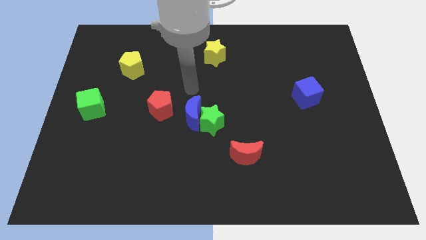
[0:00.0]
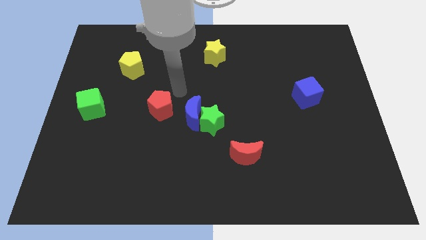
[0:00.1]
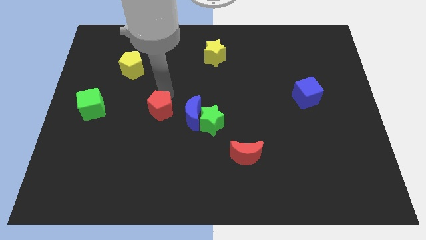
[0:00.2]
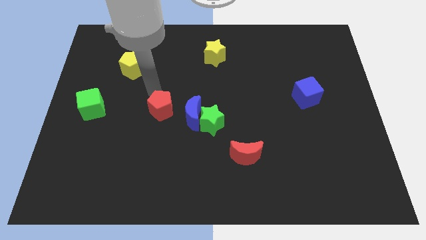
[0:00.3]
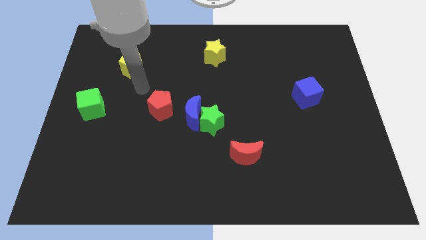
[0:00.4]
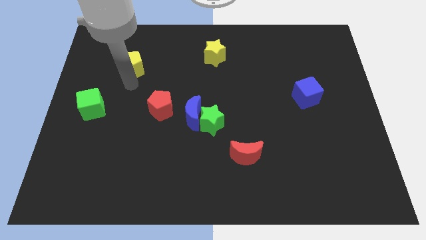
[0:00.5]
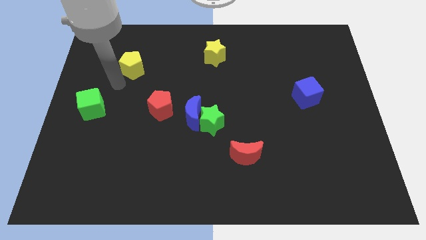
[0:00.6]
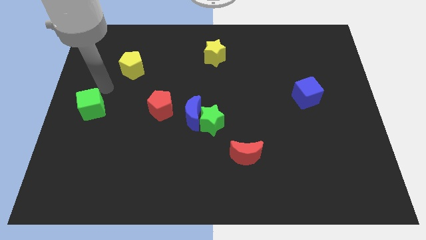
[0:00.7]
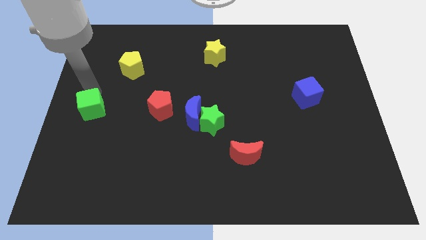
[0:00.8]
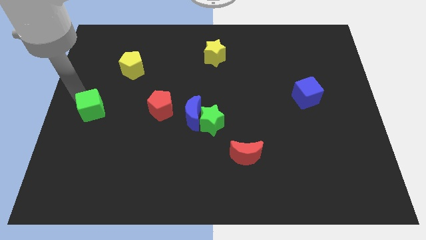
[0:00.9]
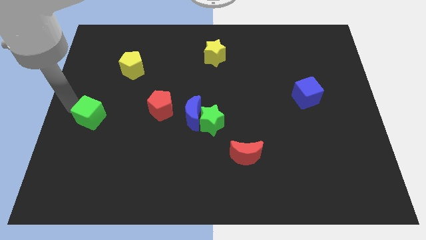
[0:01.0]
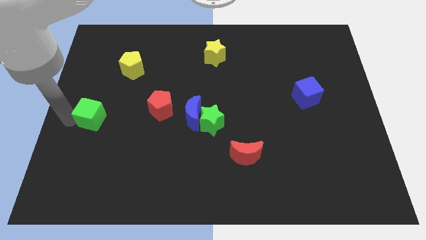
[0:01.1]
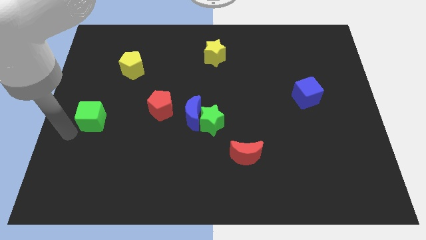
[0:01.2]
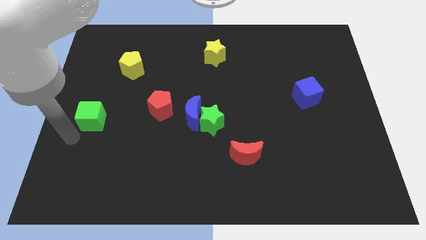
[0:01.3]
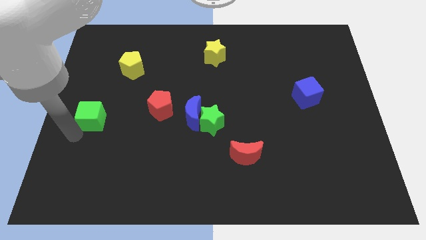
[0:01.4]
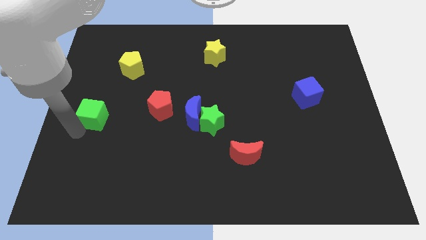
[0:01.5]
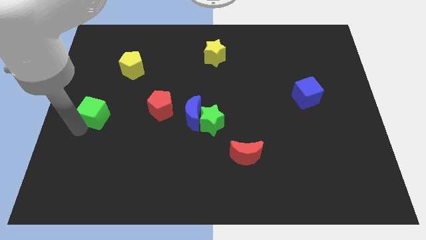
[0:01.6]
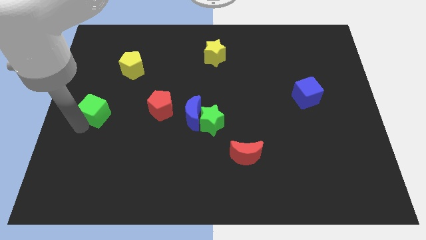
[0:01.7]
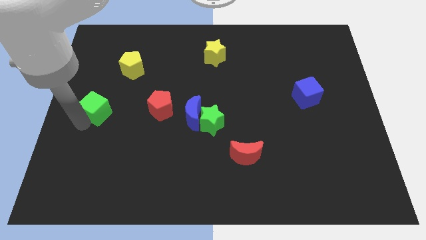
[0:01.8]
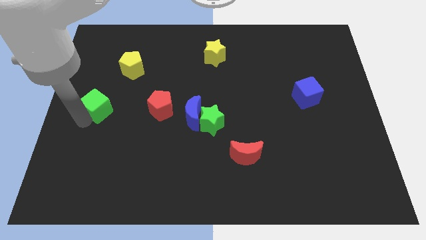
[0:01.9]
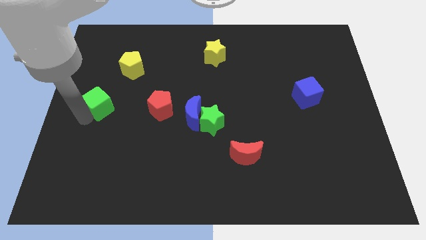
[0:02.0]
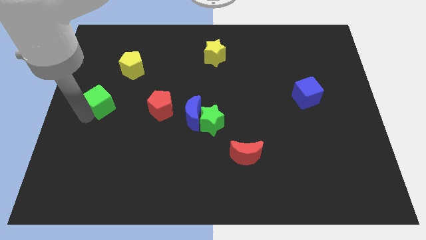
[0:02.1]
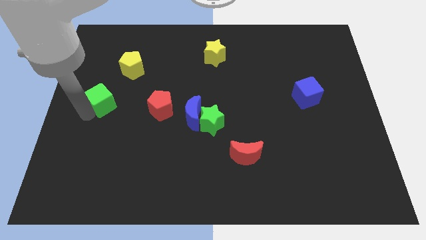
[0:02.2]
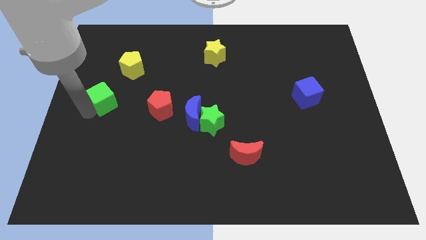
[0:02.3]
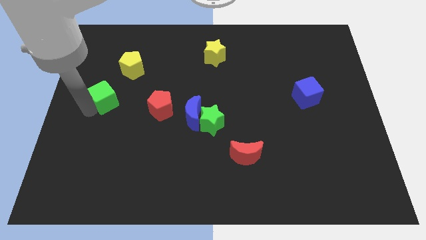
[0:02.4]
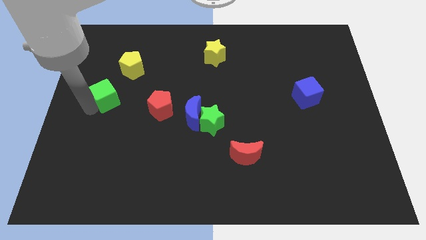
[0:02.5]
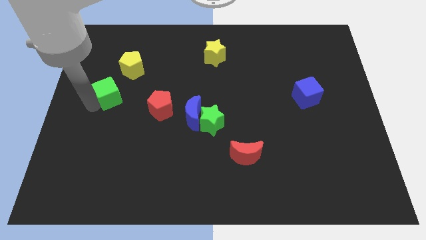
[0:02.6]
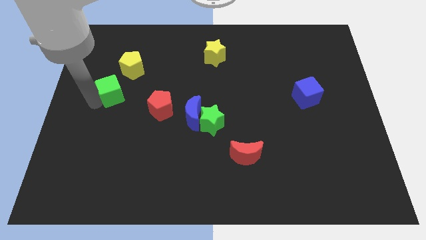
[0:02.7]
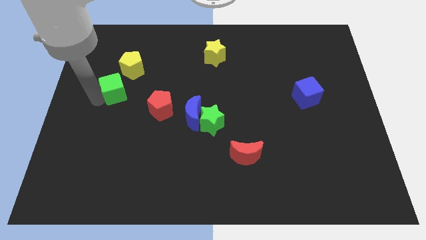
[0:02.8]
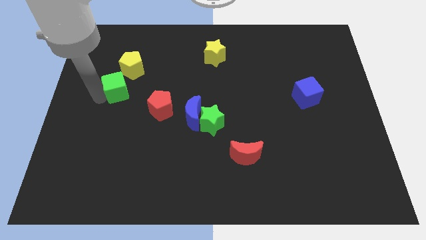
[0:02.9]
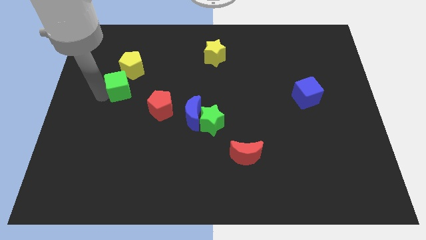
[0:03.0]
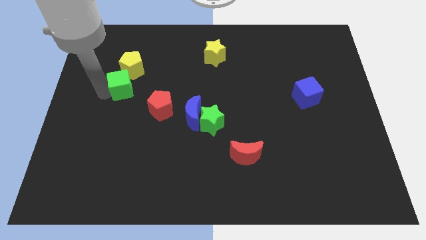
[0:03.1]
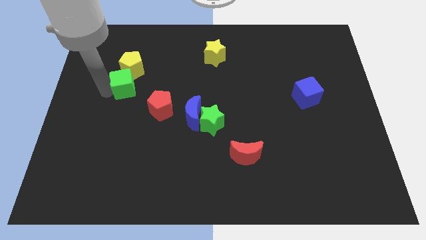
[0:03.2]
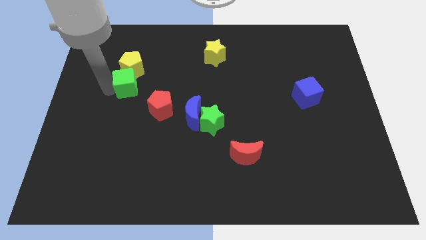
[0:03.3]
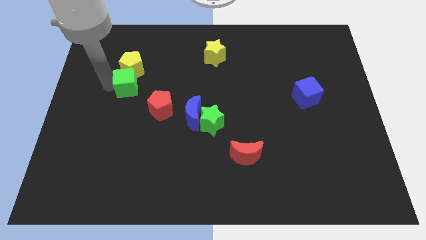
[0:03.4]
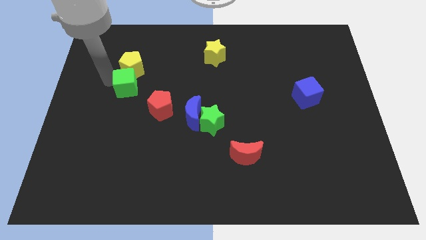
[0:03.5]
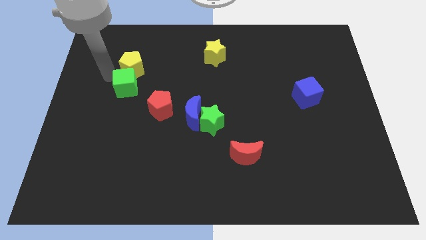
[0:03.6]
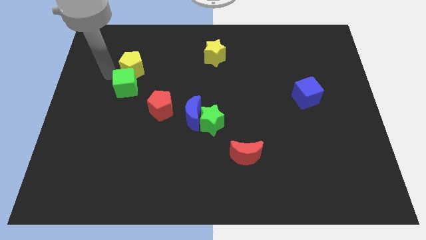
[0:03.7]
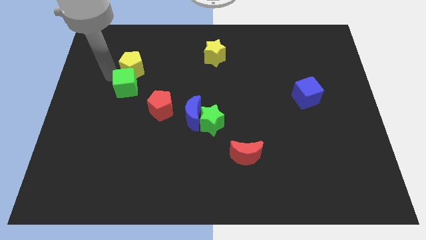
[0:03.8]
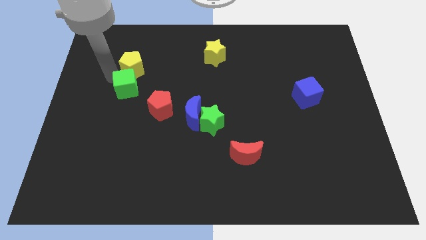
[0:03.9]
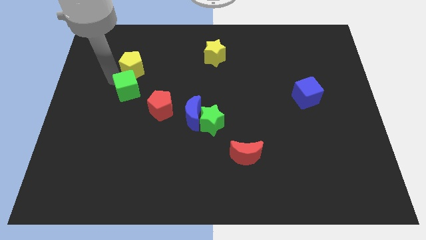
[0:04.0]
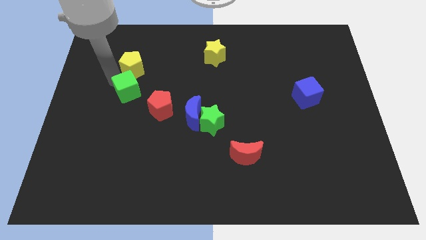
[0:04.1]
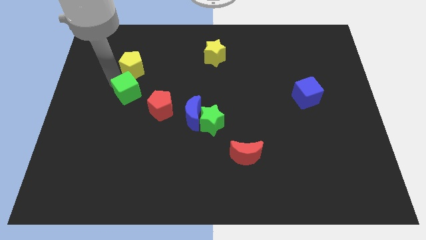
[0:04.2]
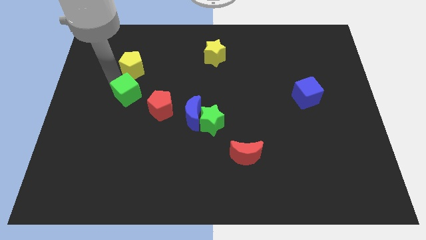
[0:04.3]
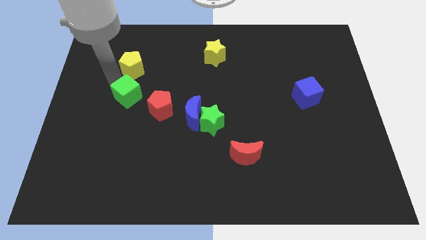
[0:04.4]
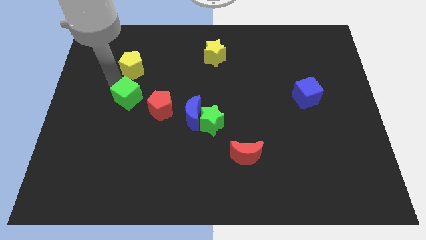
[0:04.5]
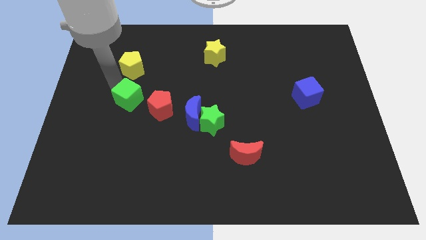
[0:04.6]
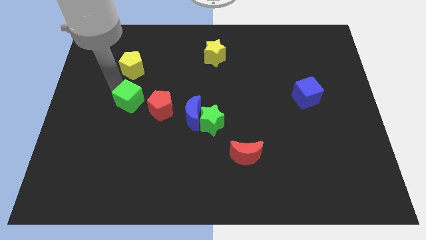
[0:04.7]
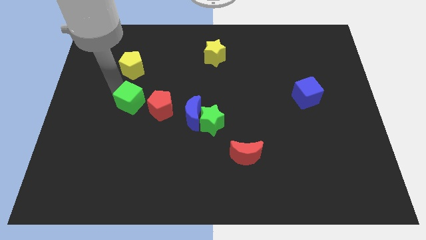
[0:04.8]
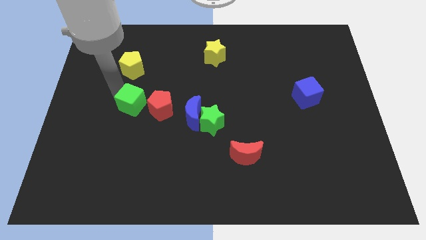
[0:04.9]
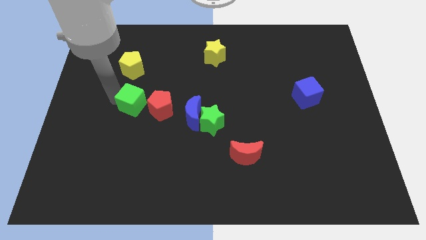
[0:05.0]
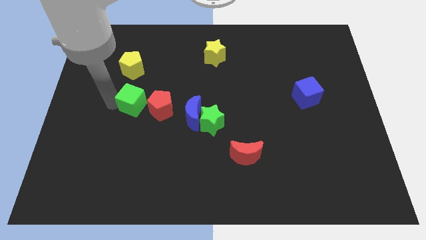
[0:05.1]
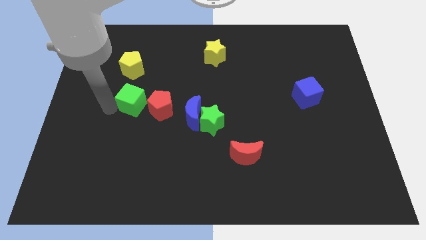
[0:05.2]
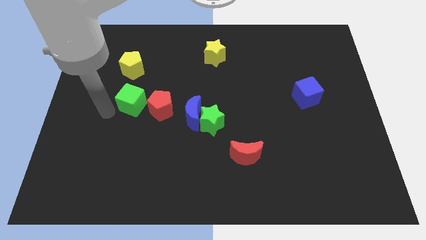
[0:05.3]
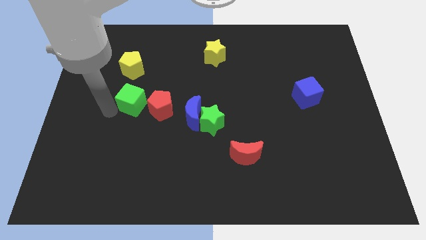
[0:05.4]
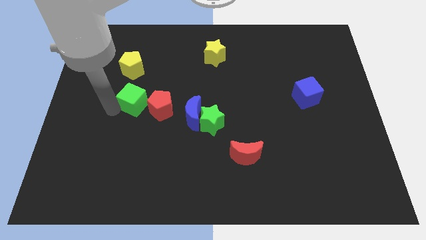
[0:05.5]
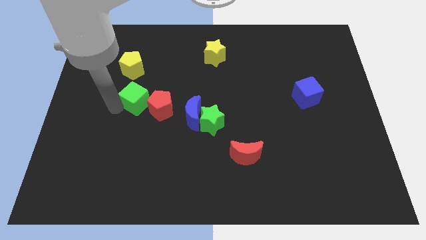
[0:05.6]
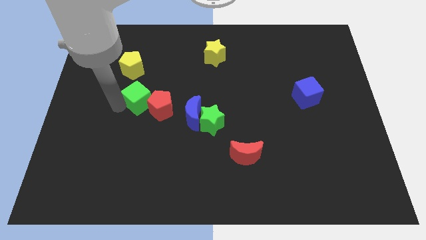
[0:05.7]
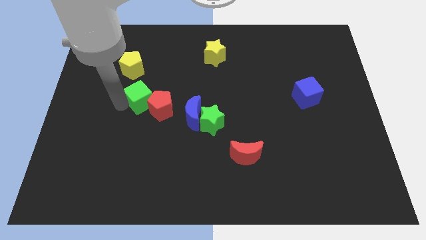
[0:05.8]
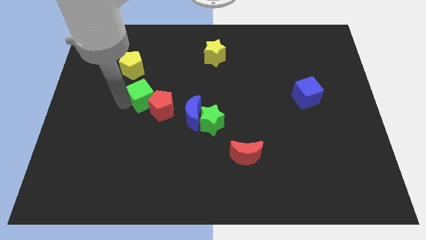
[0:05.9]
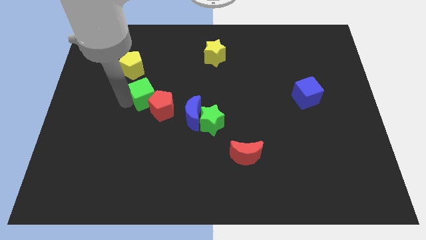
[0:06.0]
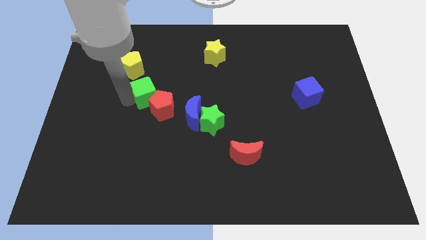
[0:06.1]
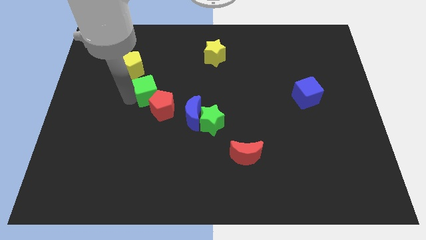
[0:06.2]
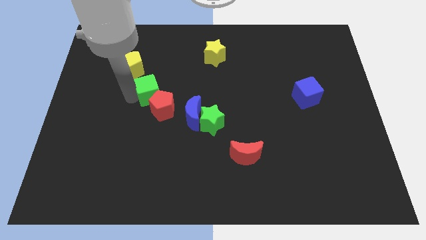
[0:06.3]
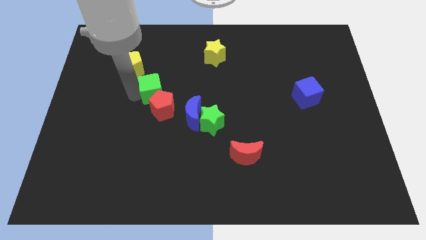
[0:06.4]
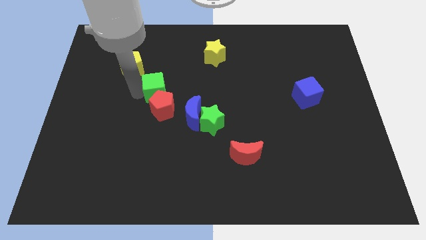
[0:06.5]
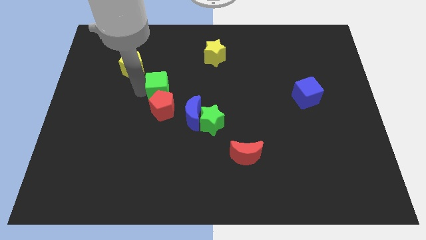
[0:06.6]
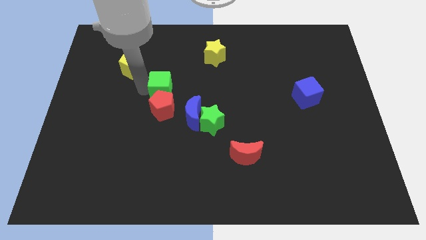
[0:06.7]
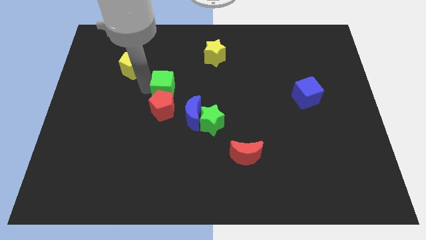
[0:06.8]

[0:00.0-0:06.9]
put the green cube to the middle

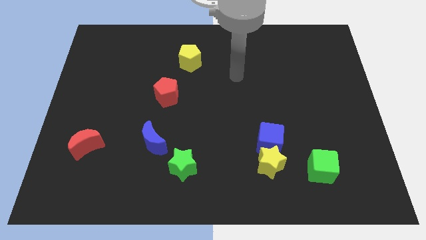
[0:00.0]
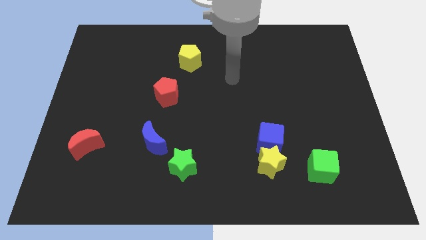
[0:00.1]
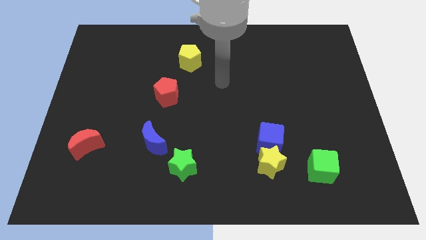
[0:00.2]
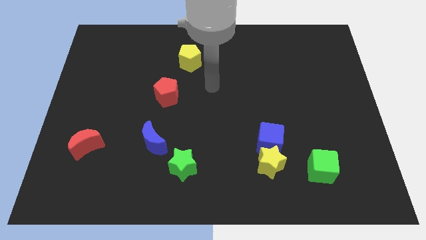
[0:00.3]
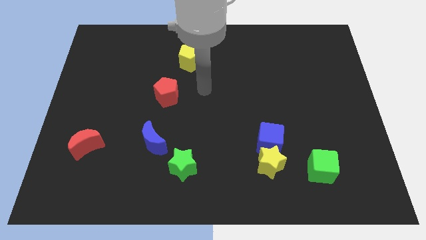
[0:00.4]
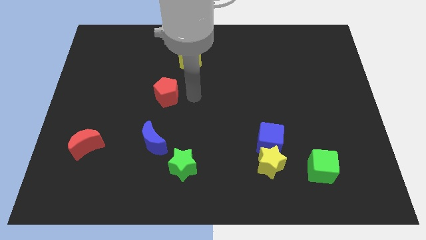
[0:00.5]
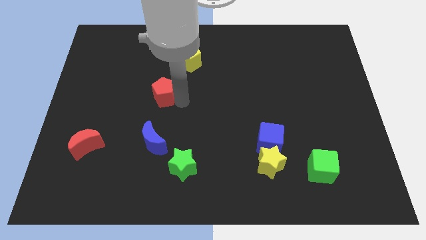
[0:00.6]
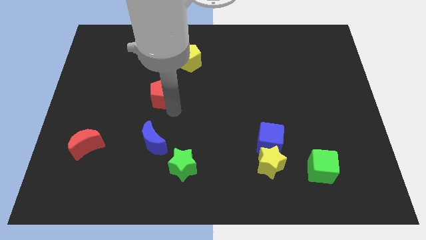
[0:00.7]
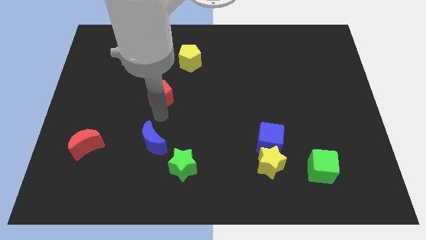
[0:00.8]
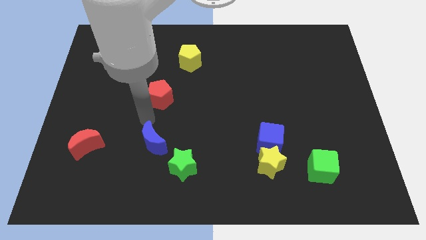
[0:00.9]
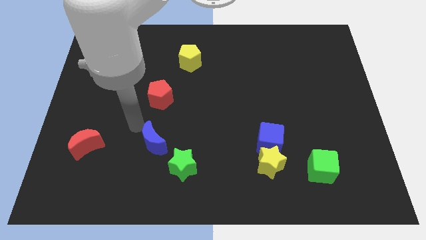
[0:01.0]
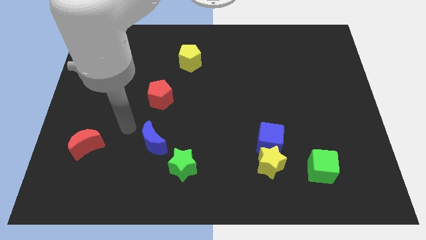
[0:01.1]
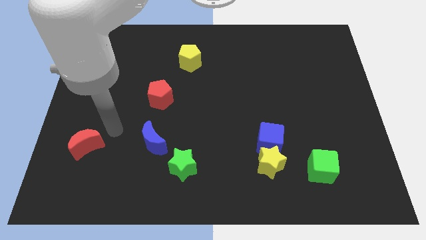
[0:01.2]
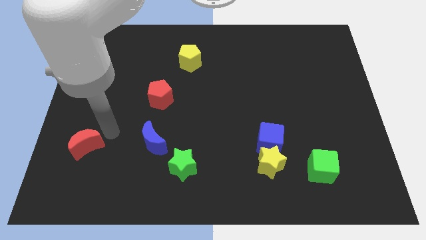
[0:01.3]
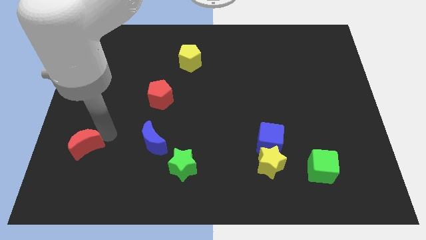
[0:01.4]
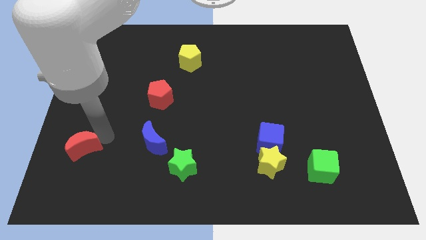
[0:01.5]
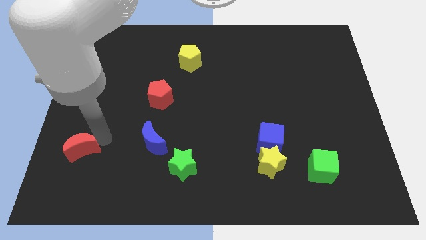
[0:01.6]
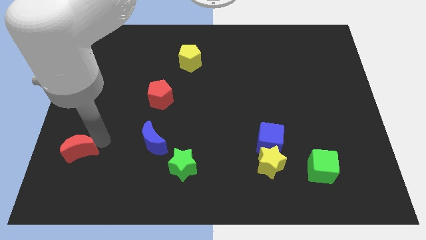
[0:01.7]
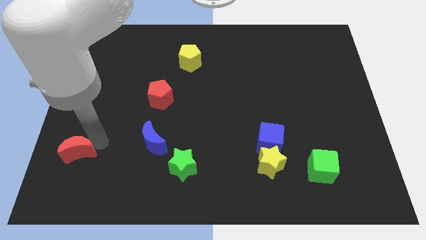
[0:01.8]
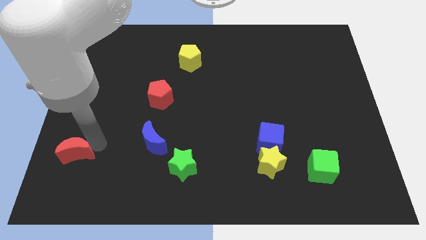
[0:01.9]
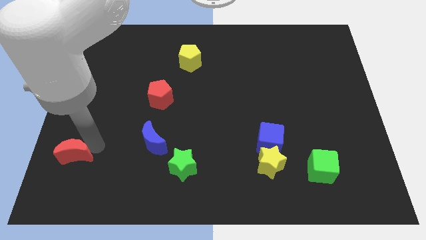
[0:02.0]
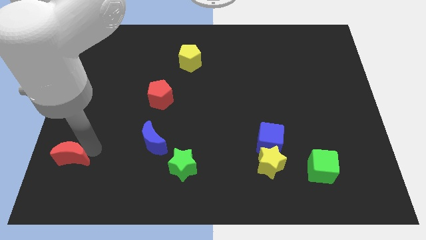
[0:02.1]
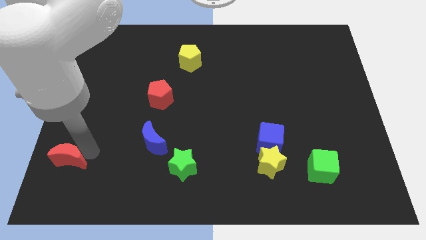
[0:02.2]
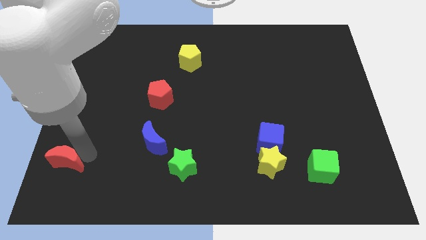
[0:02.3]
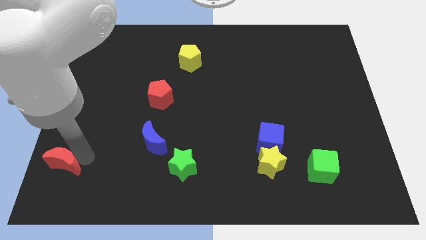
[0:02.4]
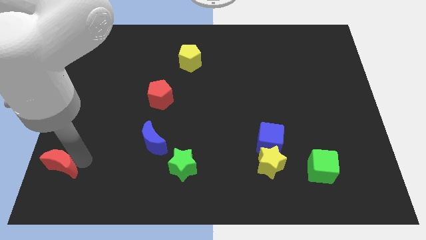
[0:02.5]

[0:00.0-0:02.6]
put the red moon to the lower left corner
